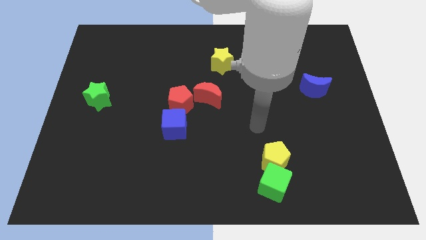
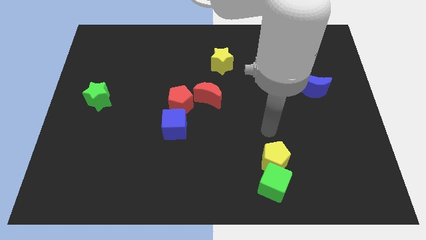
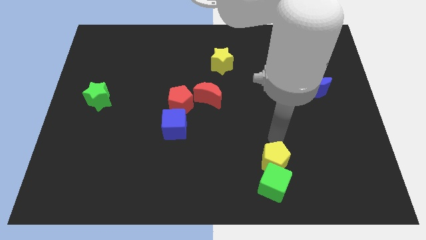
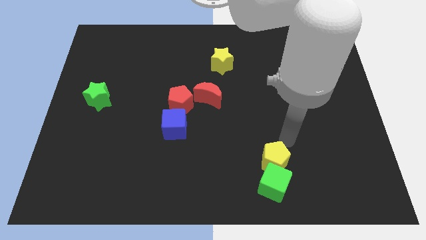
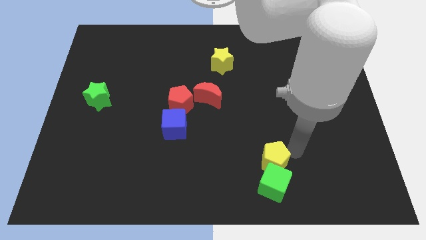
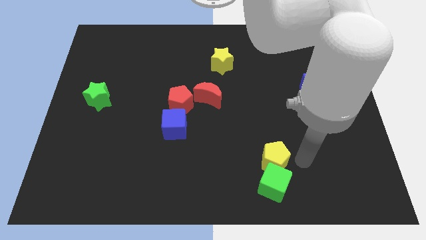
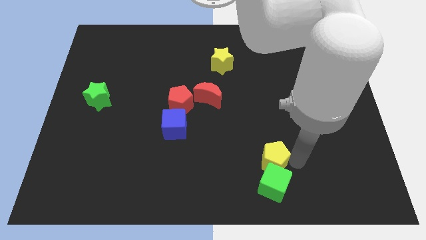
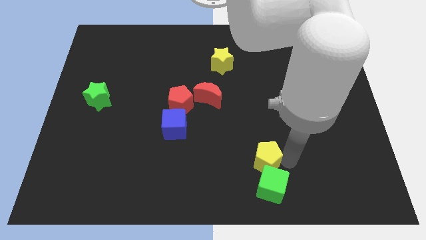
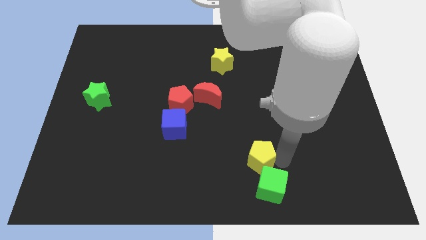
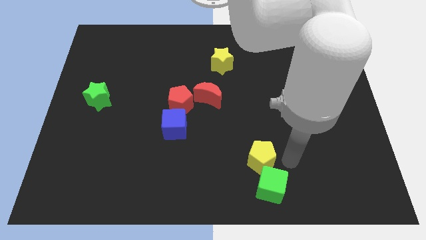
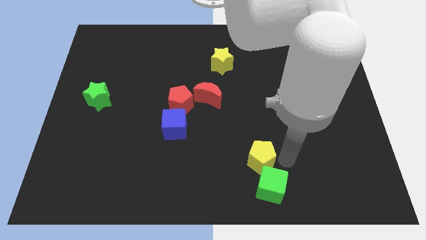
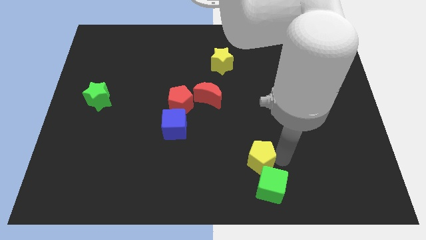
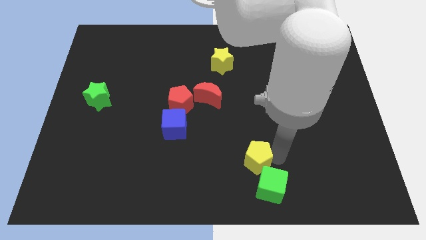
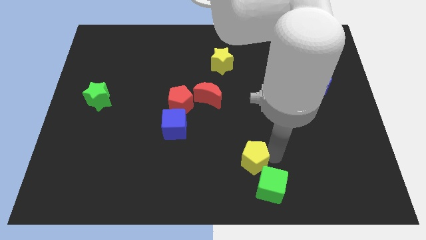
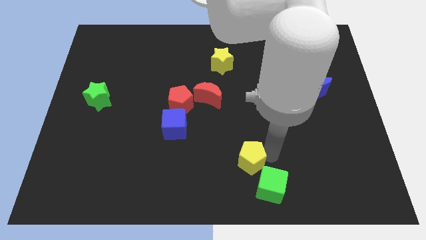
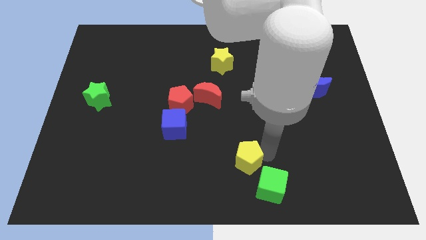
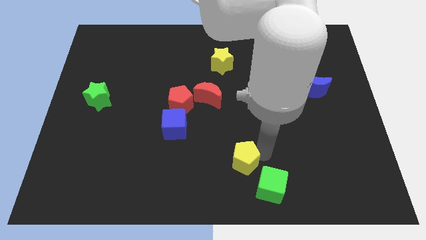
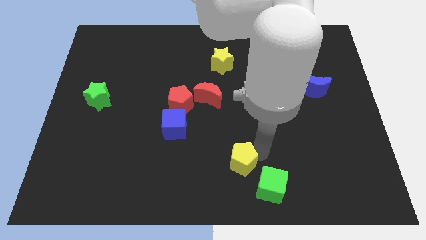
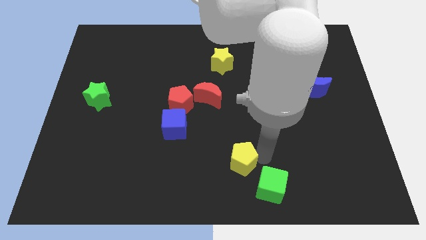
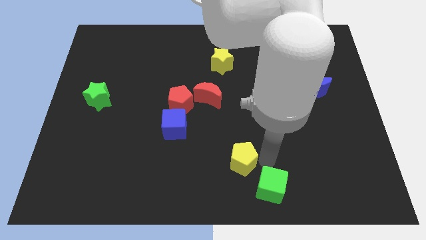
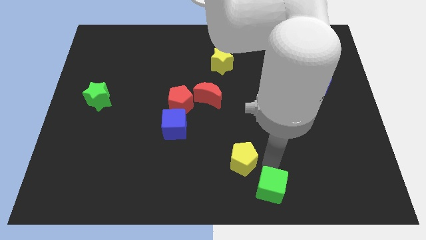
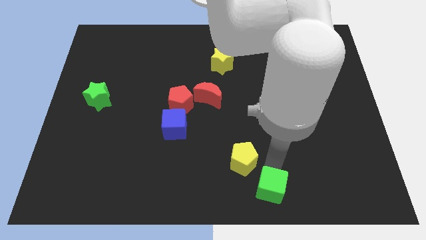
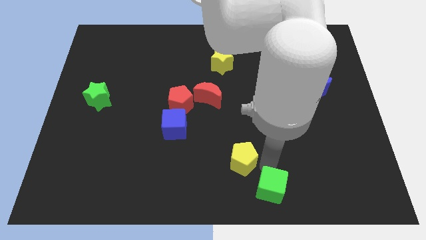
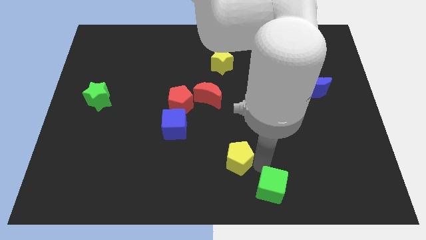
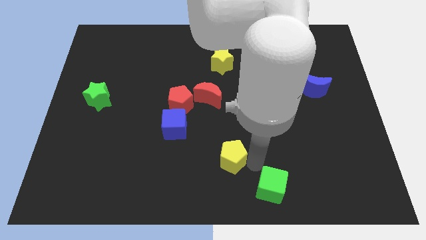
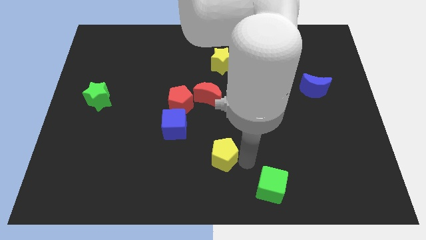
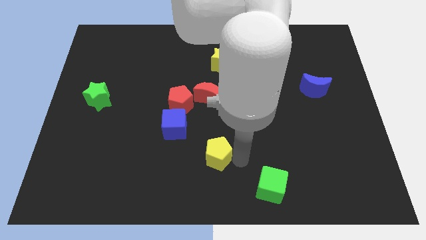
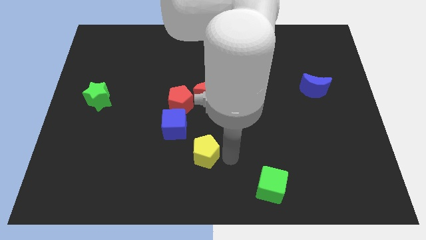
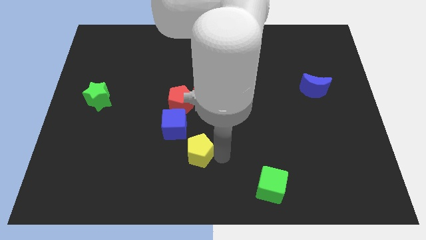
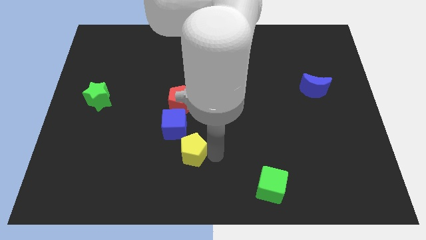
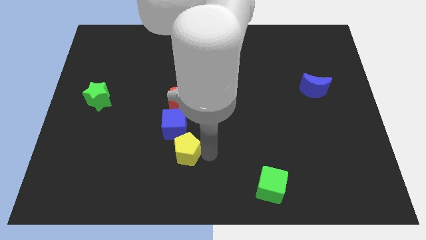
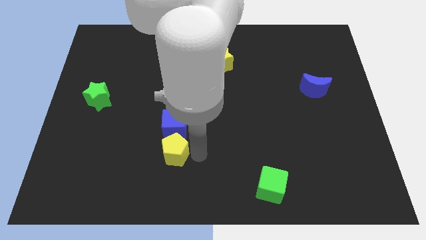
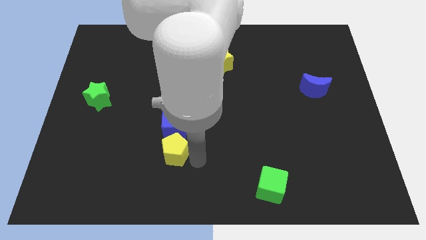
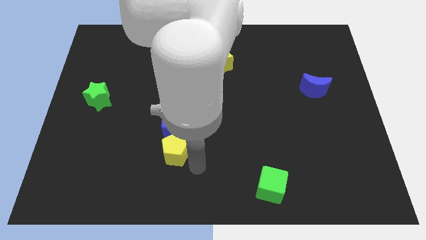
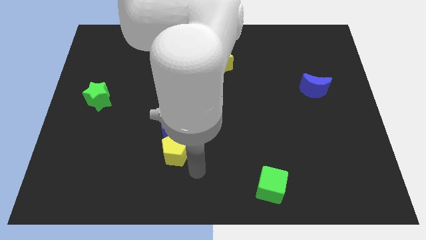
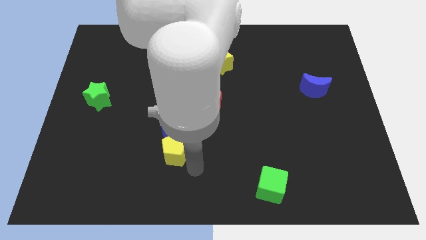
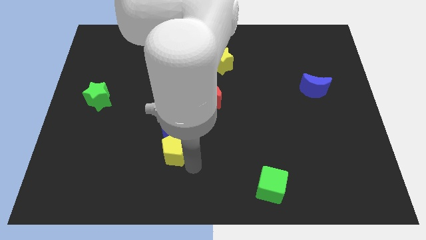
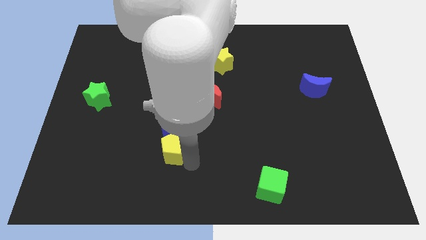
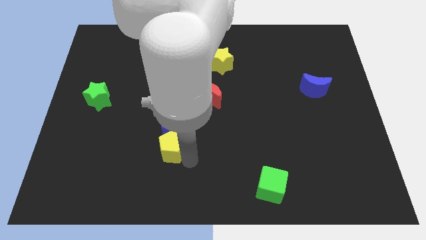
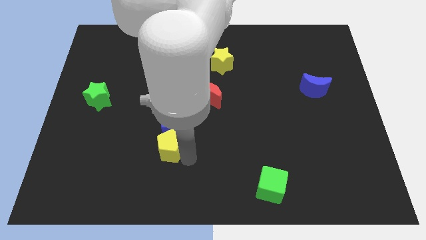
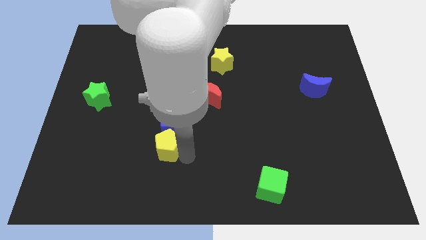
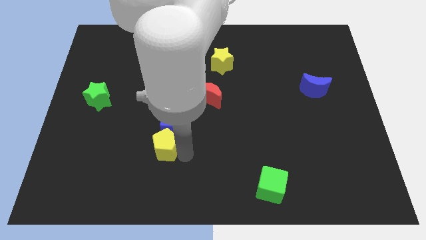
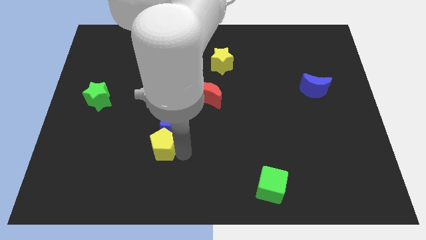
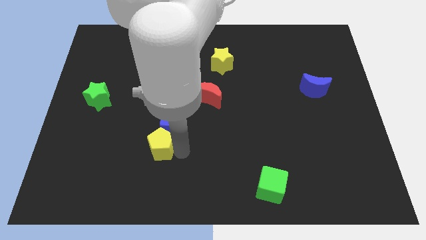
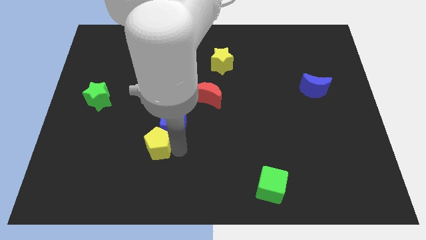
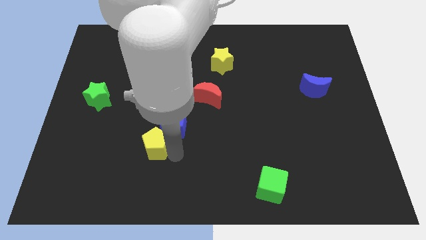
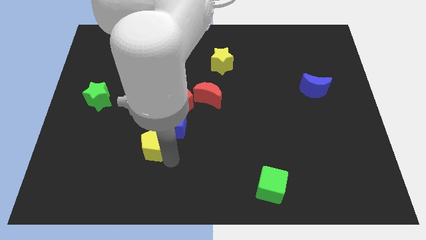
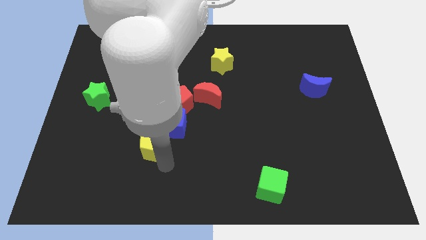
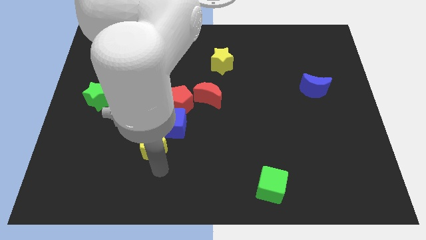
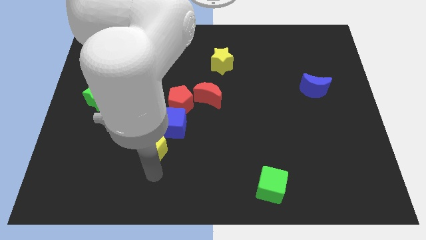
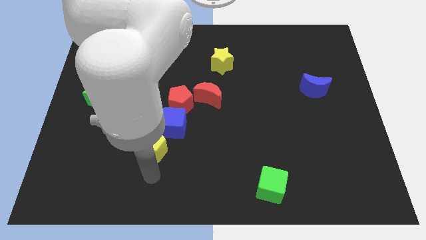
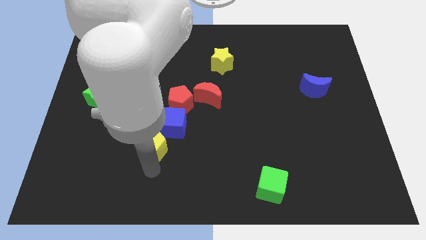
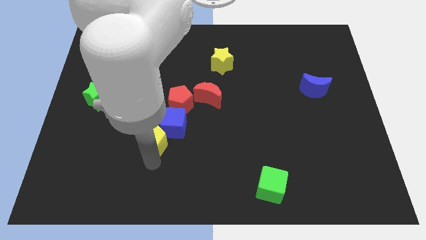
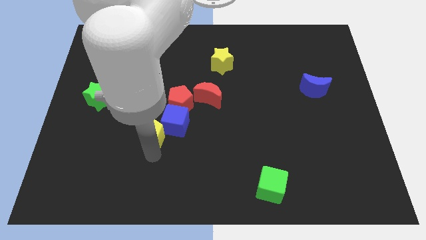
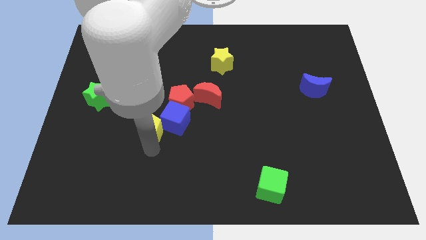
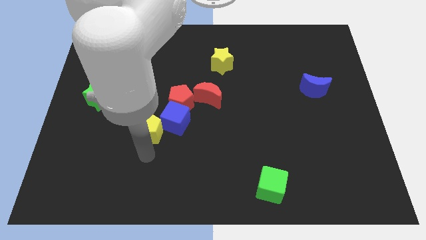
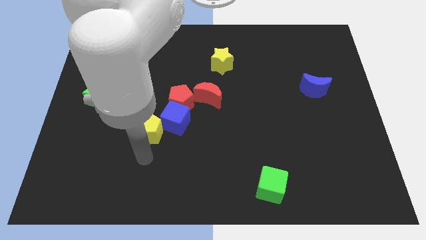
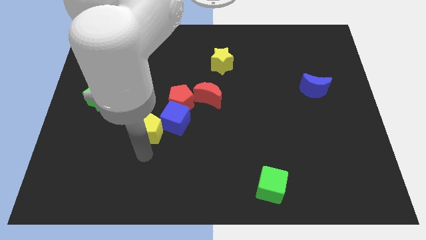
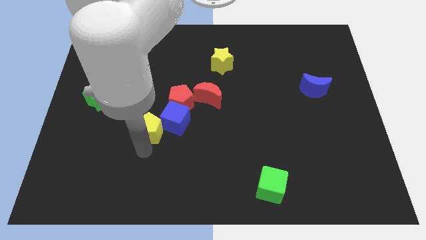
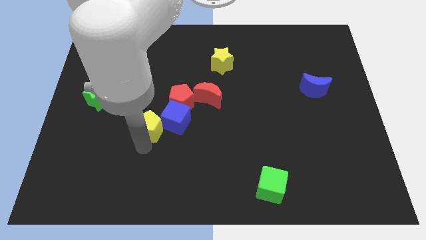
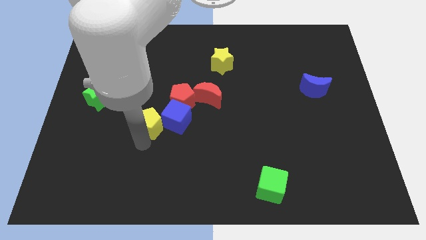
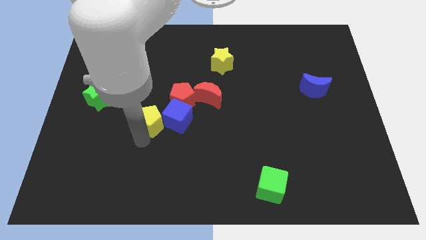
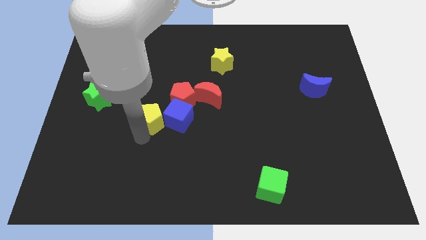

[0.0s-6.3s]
put the yellow pentagon to the top left of the blue cube
